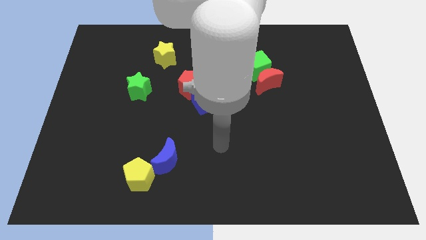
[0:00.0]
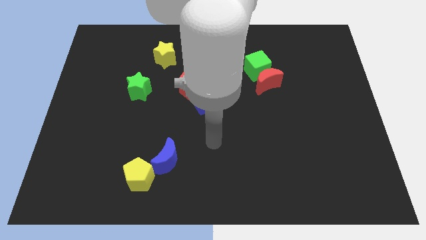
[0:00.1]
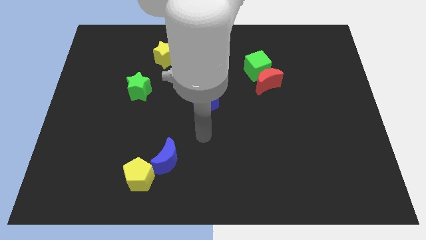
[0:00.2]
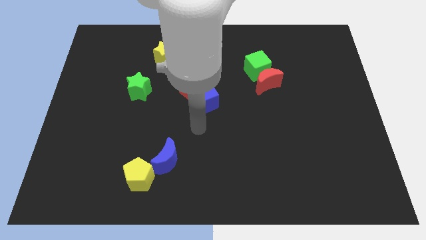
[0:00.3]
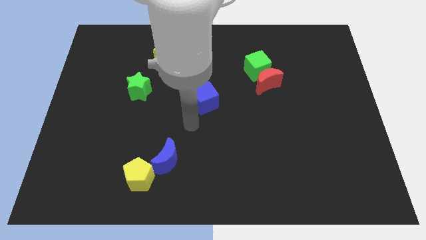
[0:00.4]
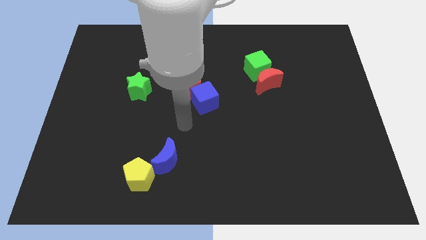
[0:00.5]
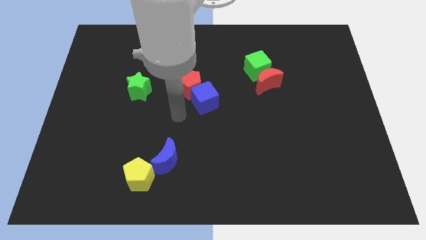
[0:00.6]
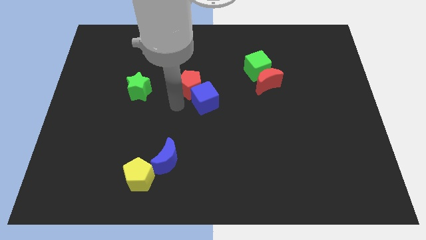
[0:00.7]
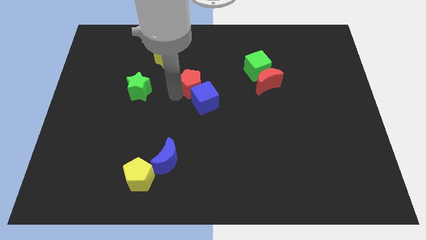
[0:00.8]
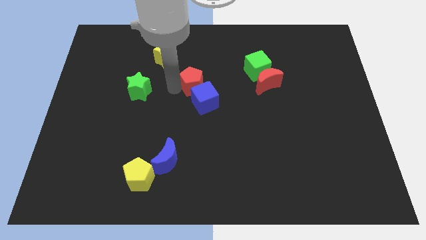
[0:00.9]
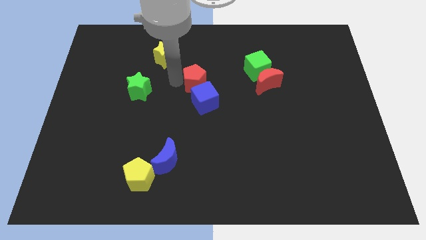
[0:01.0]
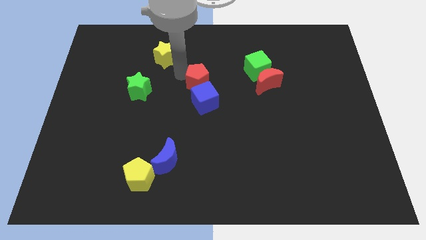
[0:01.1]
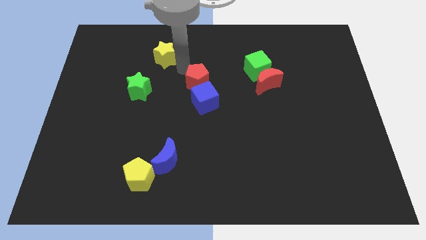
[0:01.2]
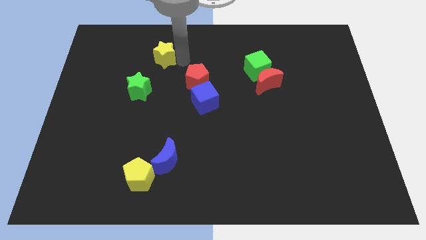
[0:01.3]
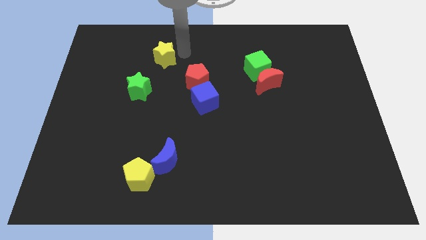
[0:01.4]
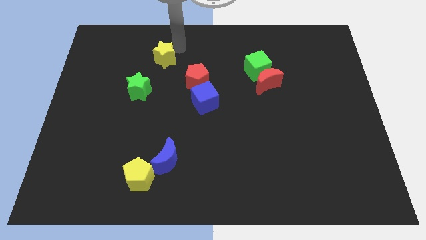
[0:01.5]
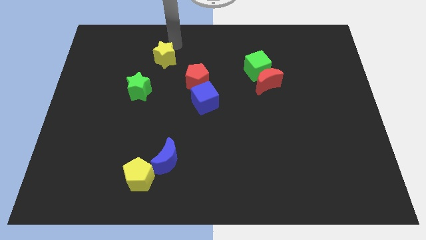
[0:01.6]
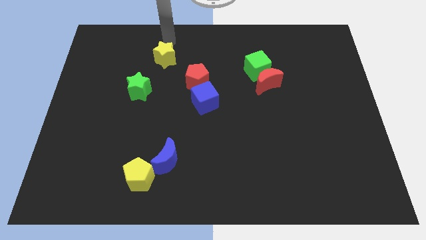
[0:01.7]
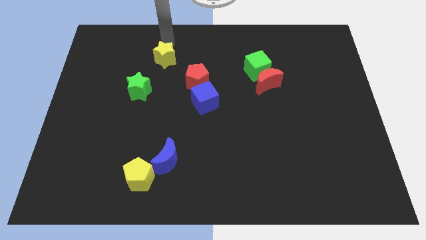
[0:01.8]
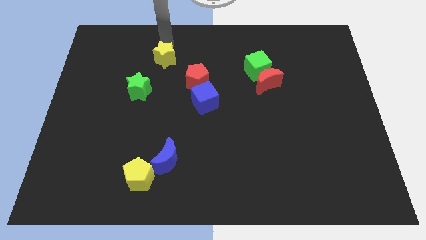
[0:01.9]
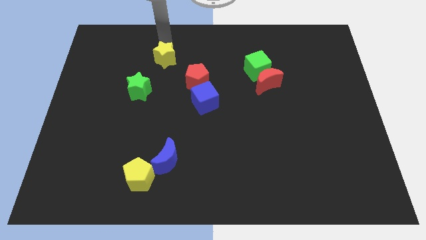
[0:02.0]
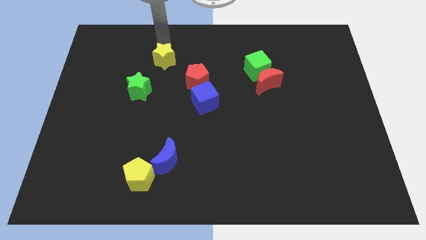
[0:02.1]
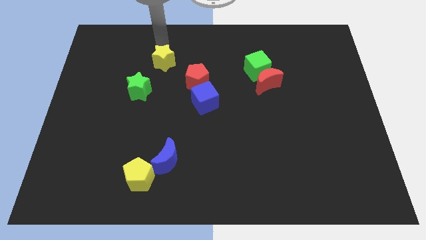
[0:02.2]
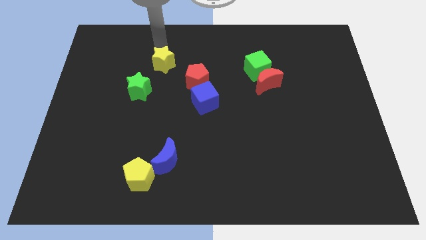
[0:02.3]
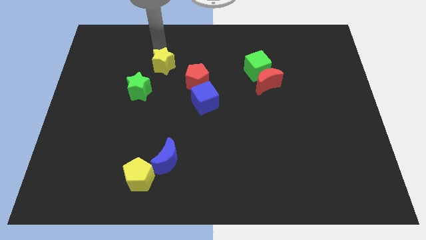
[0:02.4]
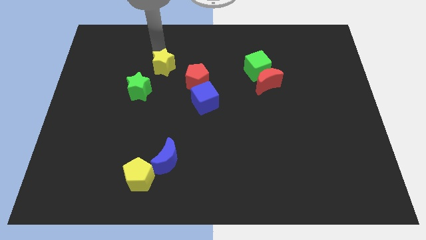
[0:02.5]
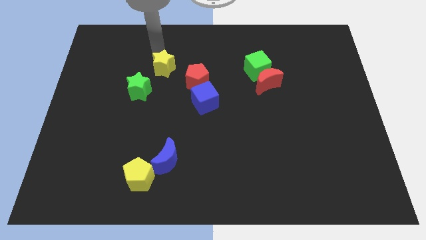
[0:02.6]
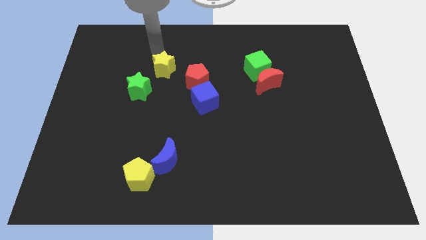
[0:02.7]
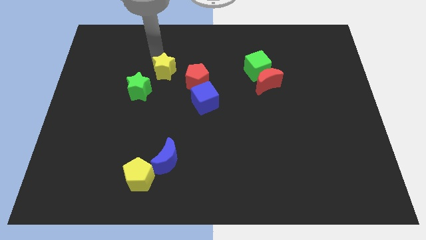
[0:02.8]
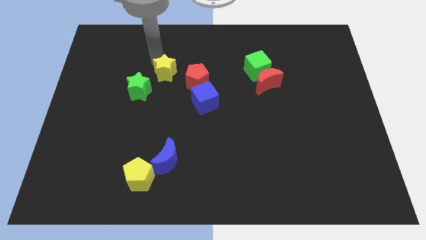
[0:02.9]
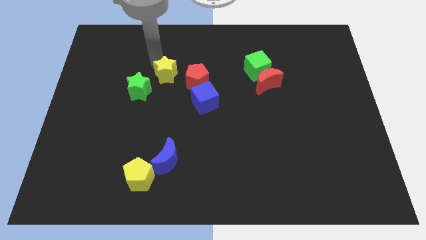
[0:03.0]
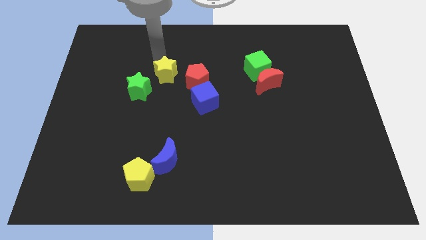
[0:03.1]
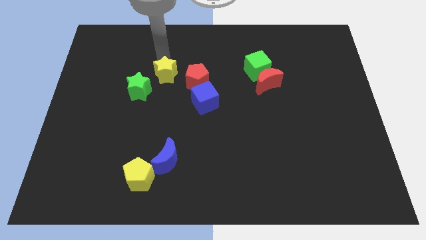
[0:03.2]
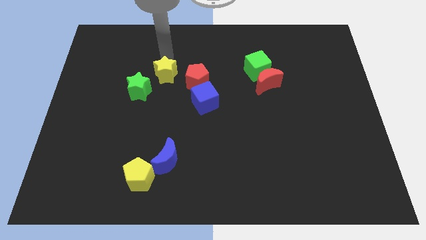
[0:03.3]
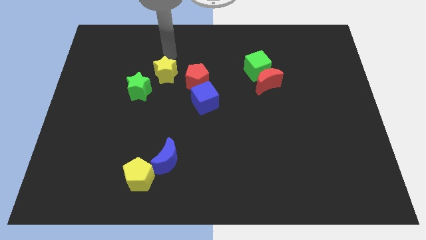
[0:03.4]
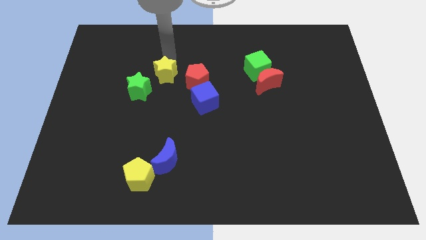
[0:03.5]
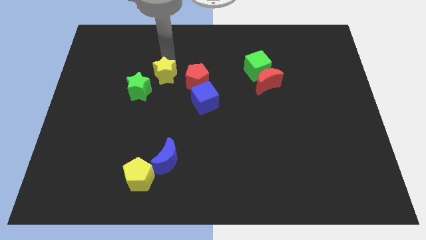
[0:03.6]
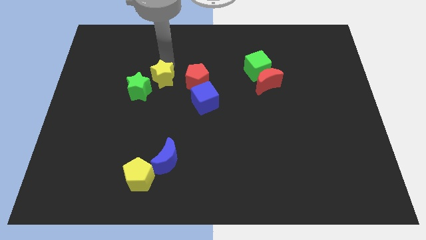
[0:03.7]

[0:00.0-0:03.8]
push the yellow star a bit down

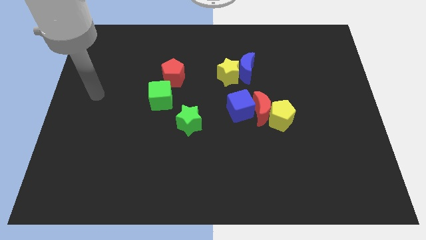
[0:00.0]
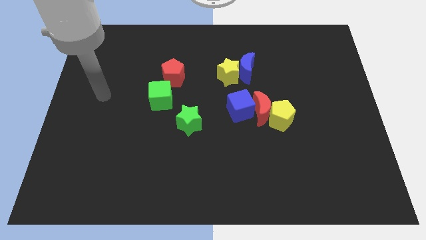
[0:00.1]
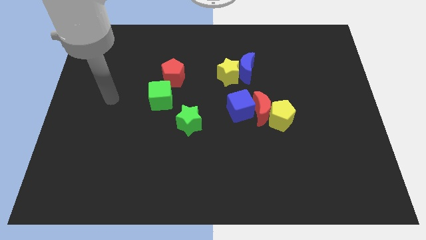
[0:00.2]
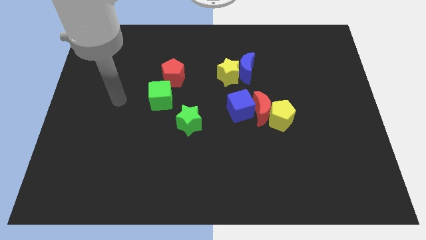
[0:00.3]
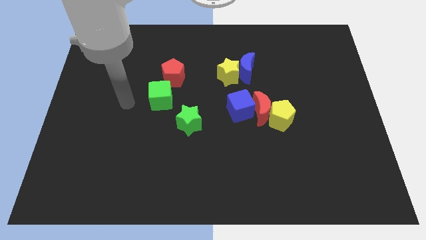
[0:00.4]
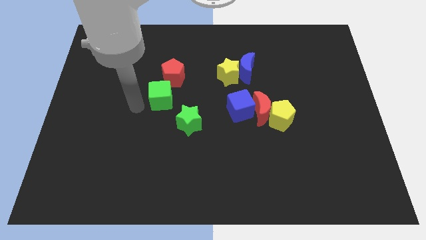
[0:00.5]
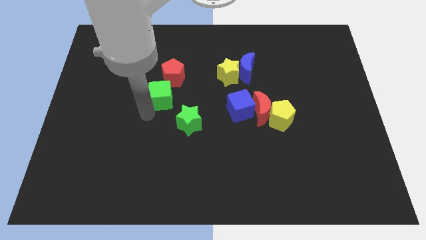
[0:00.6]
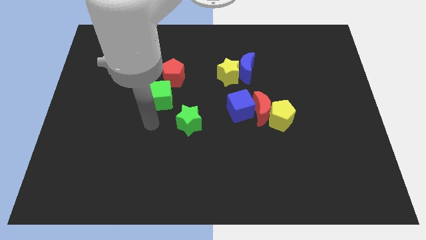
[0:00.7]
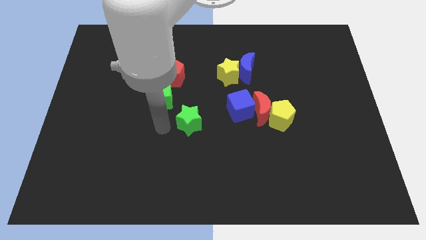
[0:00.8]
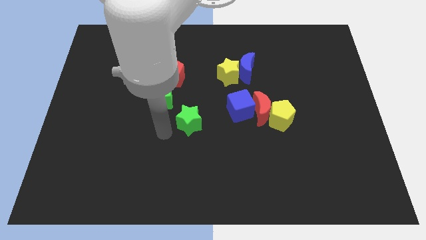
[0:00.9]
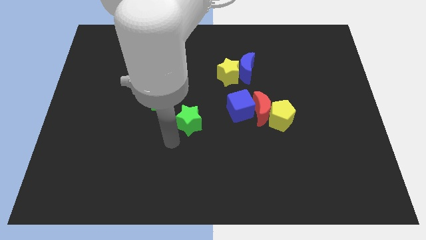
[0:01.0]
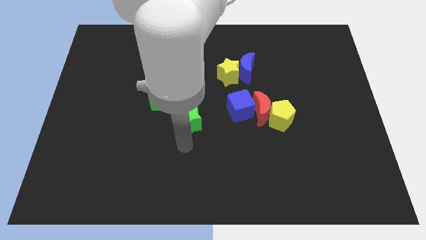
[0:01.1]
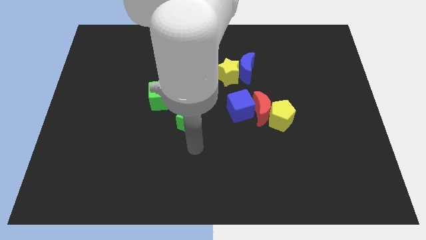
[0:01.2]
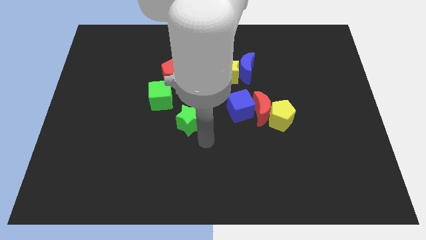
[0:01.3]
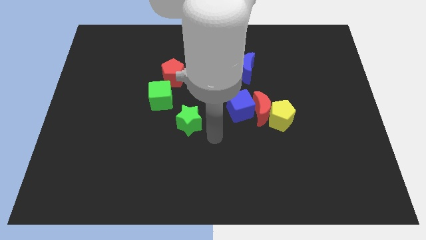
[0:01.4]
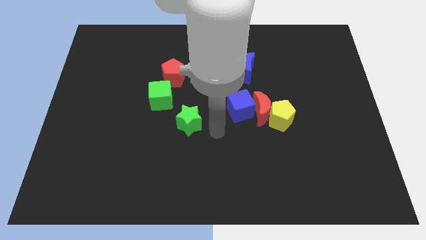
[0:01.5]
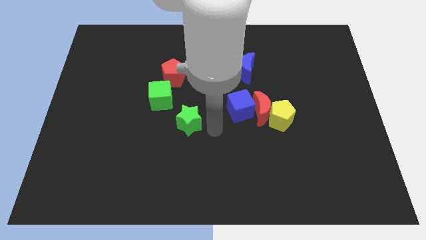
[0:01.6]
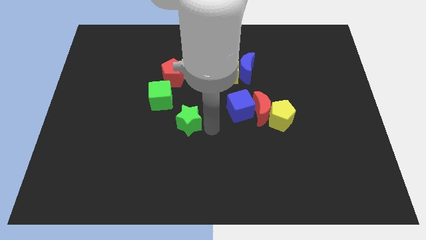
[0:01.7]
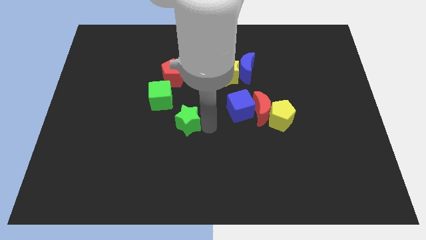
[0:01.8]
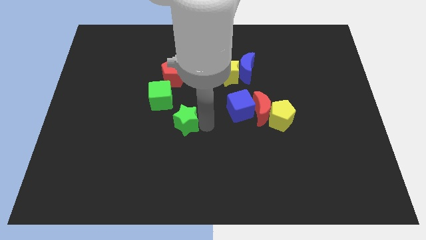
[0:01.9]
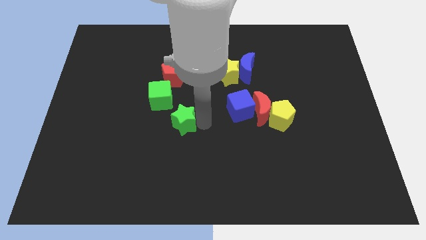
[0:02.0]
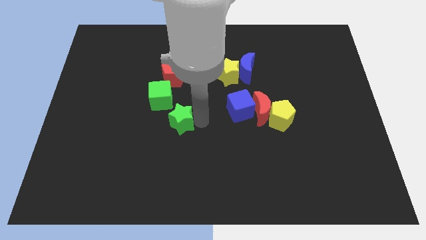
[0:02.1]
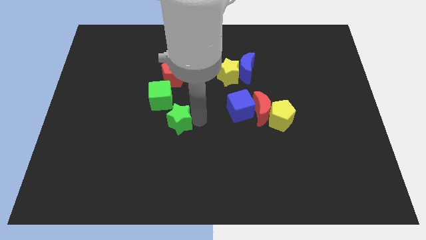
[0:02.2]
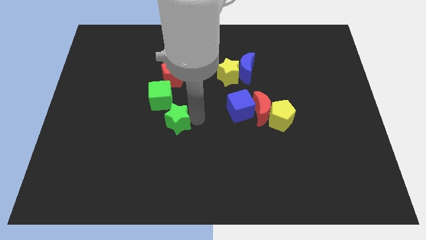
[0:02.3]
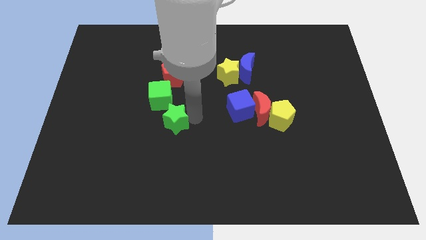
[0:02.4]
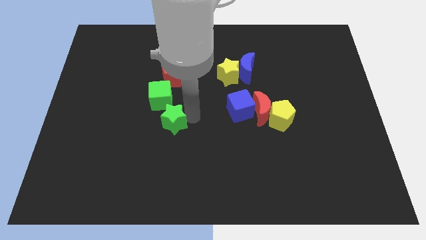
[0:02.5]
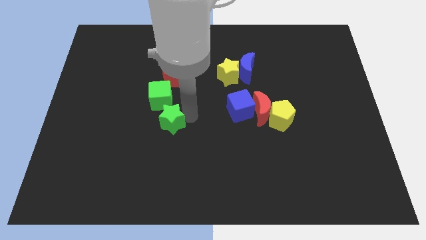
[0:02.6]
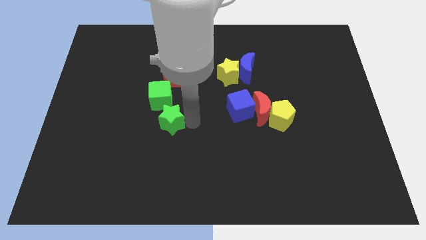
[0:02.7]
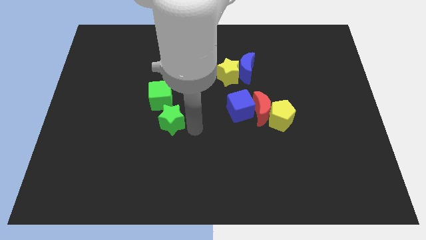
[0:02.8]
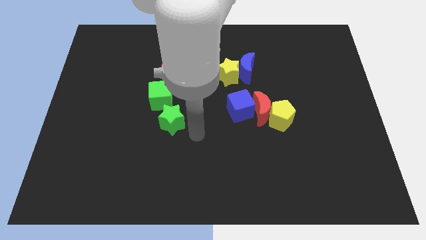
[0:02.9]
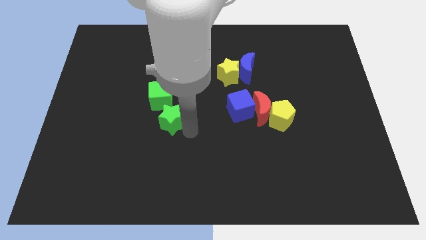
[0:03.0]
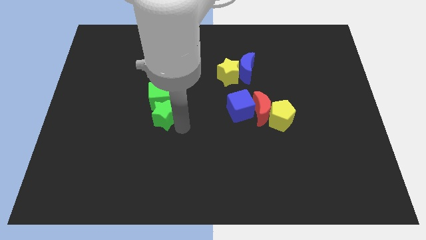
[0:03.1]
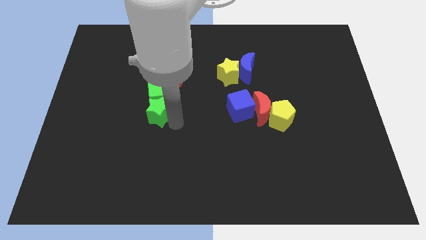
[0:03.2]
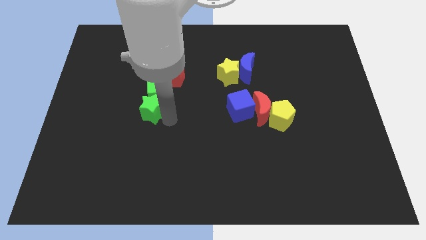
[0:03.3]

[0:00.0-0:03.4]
slightly slide the green star upwards and left diagonally

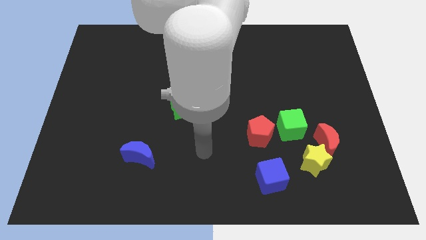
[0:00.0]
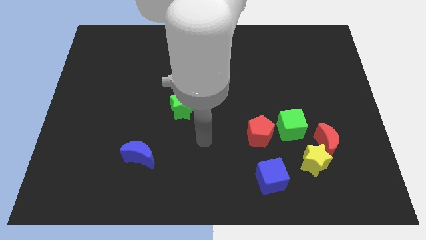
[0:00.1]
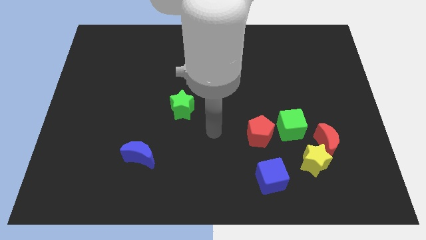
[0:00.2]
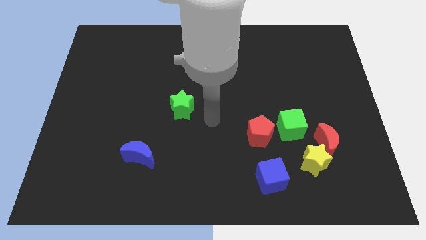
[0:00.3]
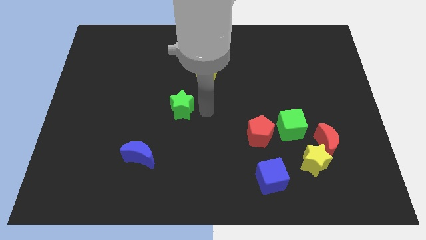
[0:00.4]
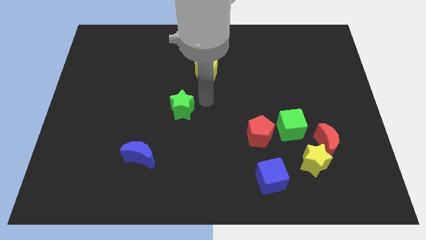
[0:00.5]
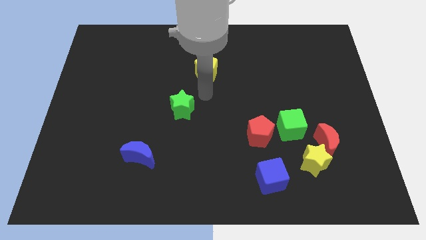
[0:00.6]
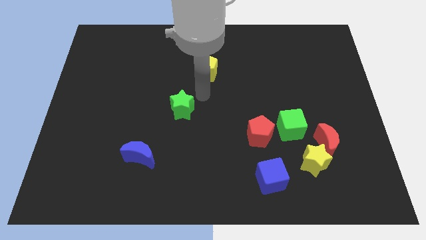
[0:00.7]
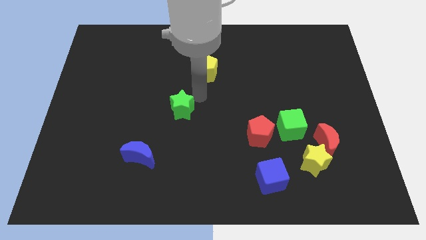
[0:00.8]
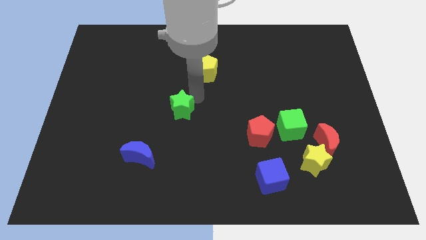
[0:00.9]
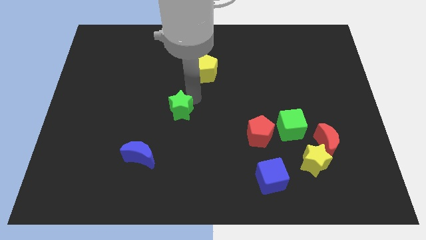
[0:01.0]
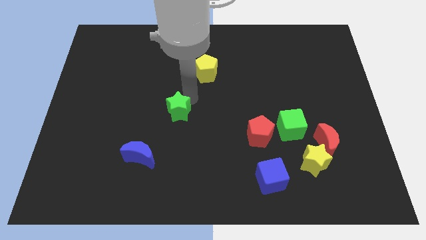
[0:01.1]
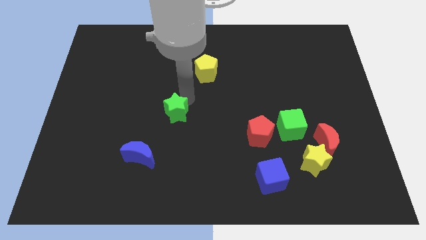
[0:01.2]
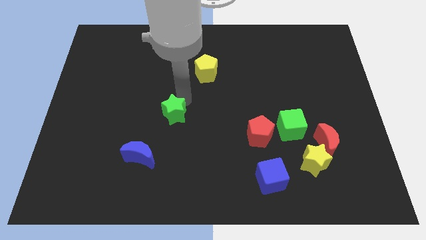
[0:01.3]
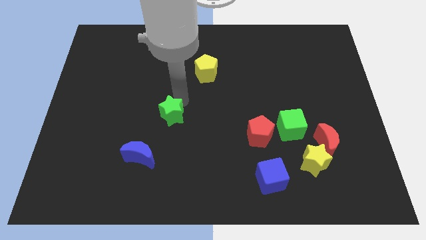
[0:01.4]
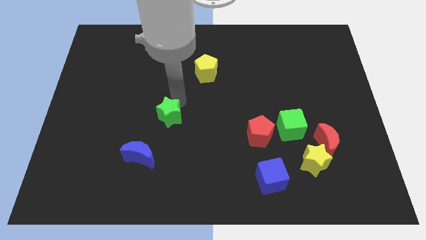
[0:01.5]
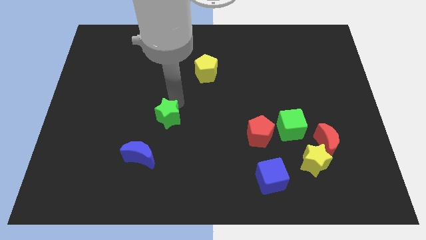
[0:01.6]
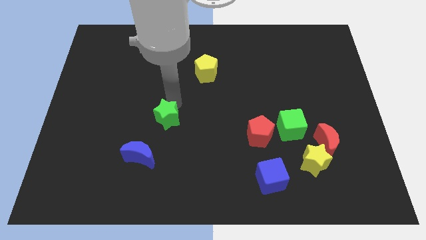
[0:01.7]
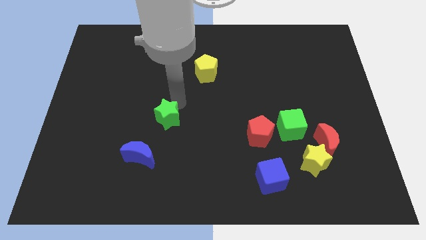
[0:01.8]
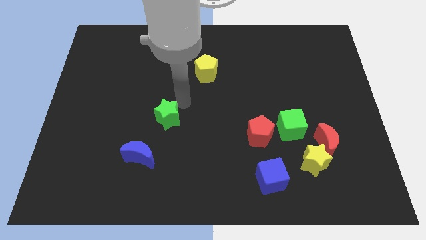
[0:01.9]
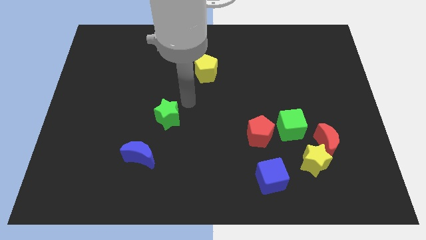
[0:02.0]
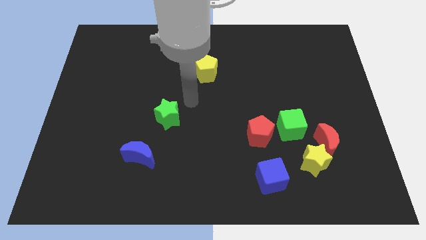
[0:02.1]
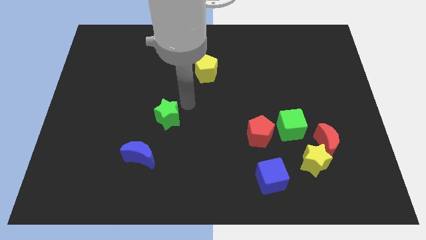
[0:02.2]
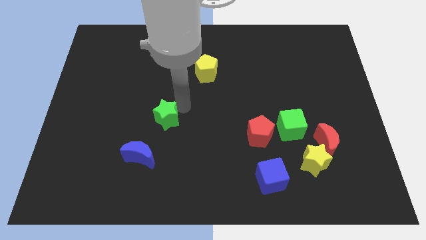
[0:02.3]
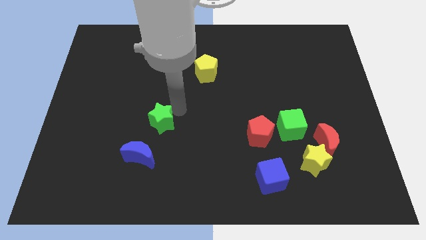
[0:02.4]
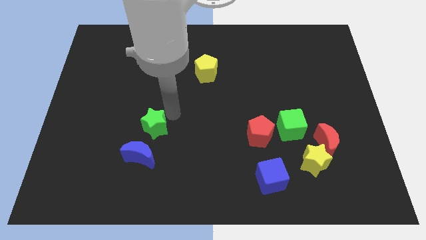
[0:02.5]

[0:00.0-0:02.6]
move the green star downwards and then left a little bit
